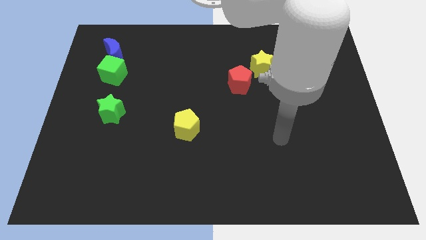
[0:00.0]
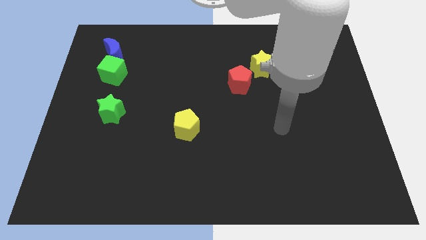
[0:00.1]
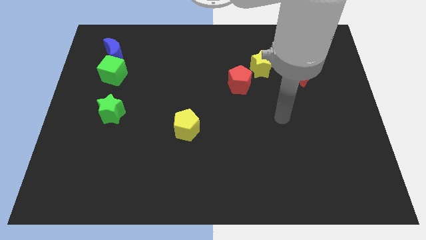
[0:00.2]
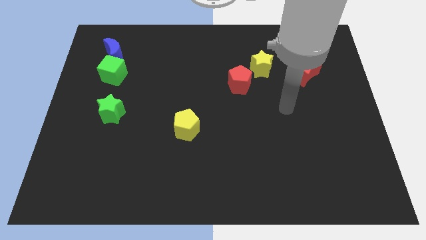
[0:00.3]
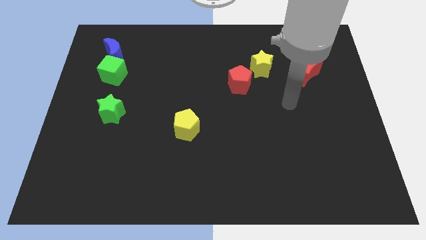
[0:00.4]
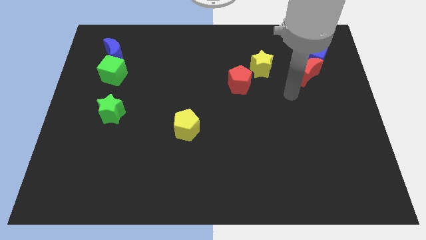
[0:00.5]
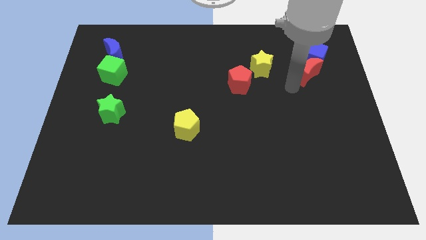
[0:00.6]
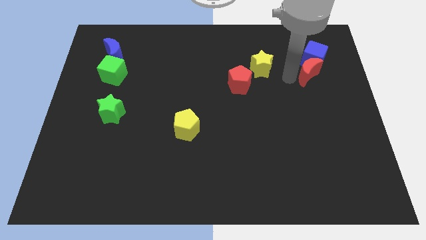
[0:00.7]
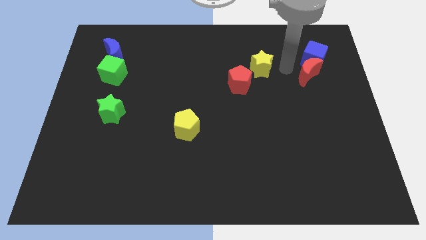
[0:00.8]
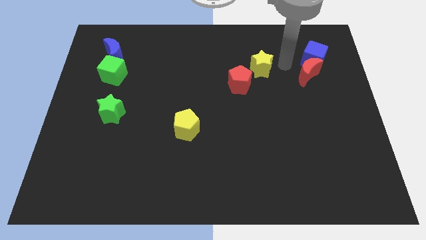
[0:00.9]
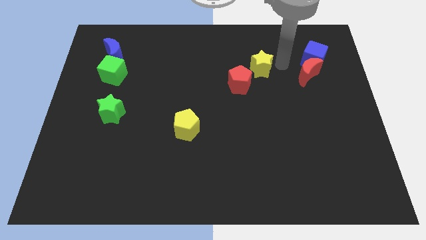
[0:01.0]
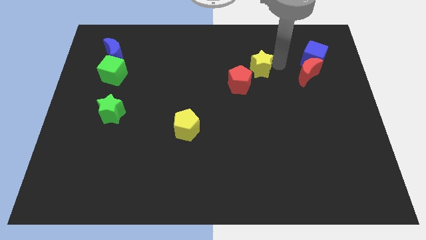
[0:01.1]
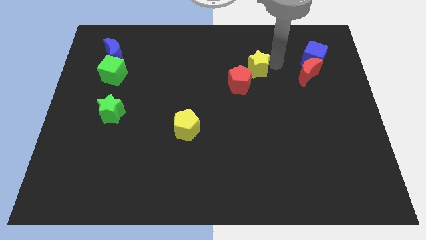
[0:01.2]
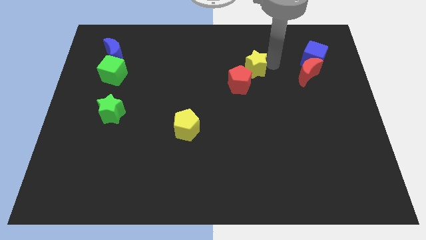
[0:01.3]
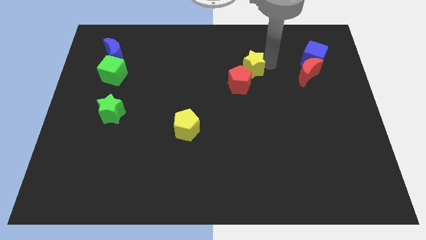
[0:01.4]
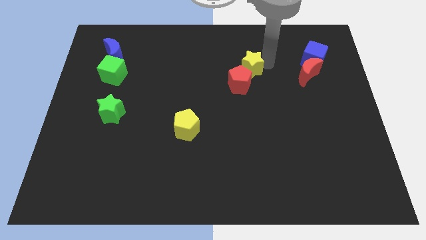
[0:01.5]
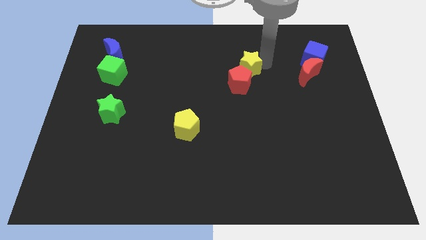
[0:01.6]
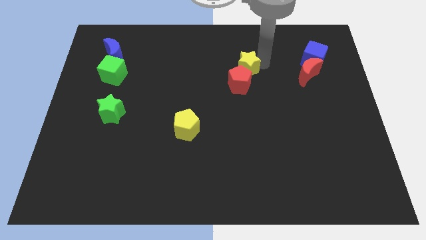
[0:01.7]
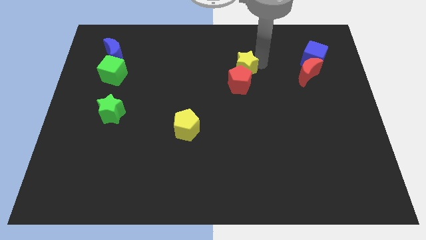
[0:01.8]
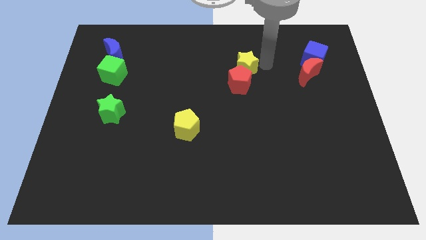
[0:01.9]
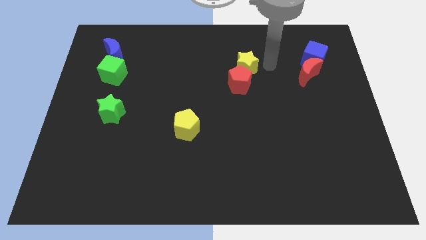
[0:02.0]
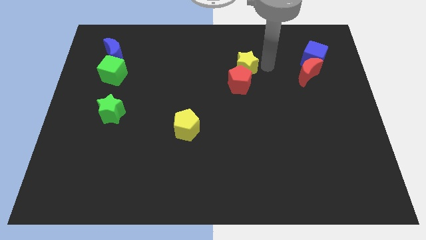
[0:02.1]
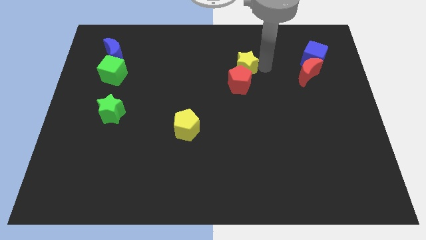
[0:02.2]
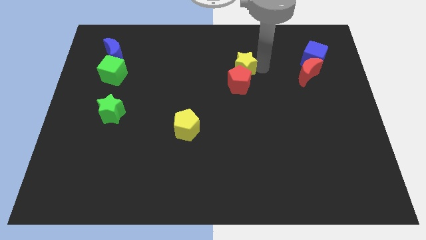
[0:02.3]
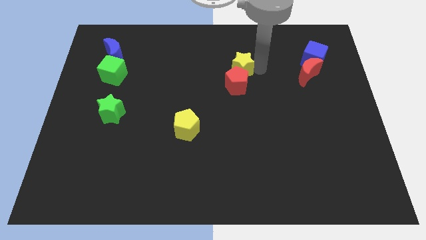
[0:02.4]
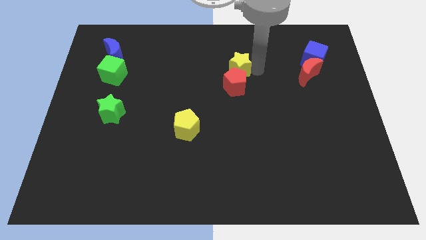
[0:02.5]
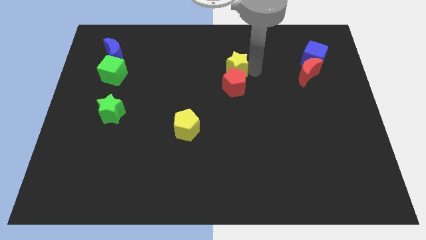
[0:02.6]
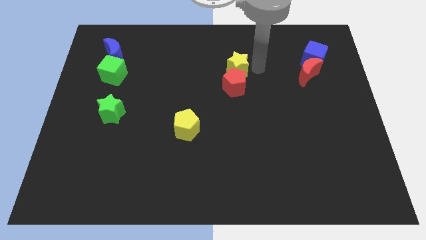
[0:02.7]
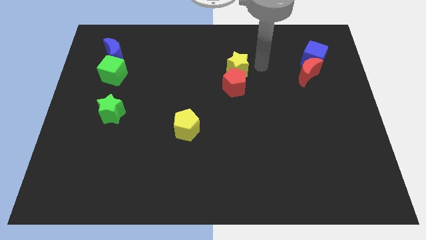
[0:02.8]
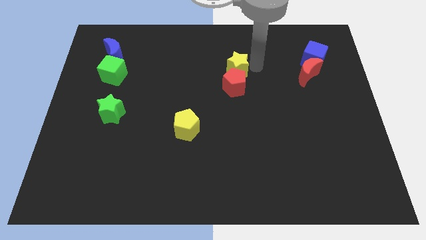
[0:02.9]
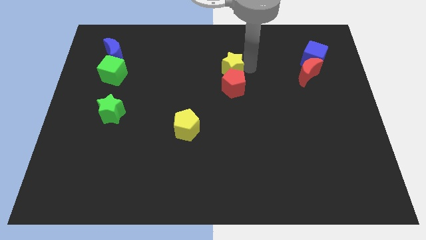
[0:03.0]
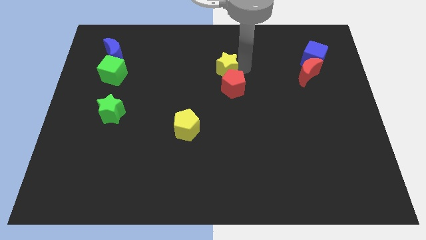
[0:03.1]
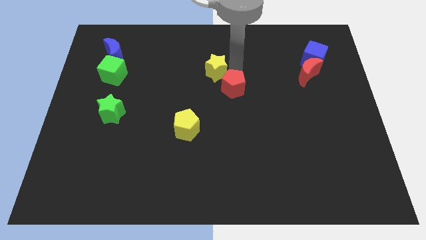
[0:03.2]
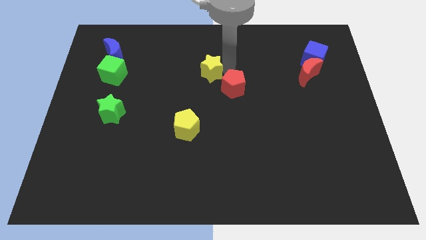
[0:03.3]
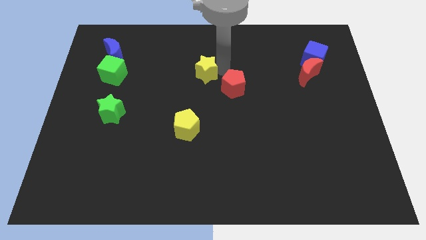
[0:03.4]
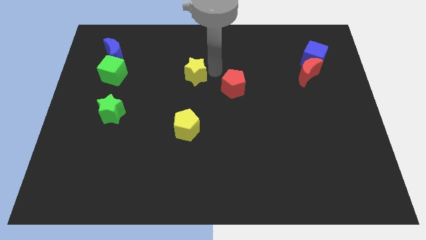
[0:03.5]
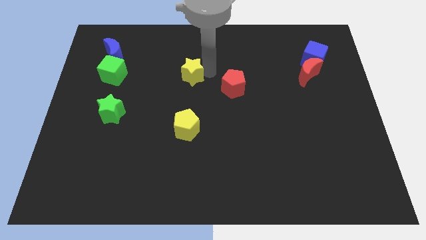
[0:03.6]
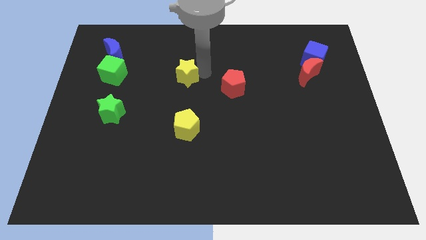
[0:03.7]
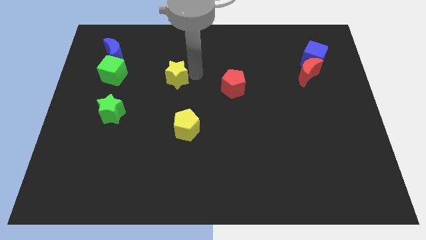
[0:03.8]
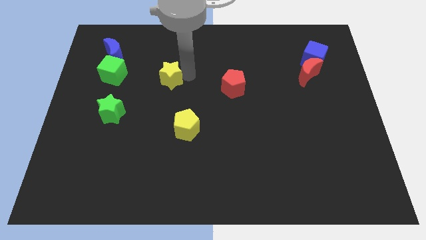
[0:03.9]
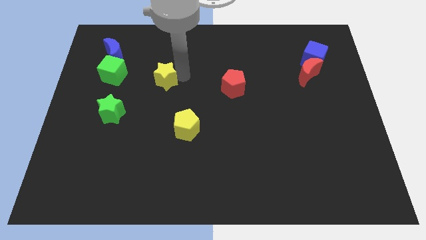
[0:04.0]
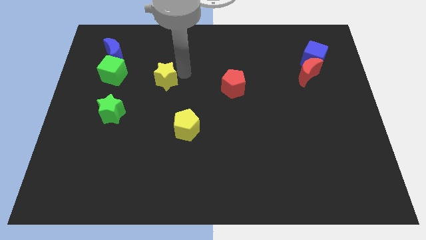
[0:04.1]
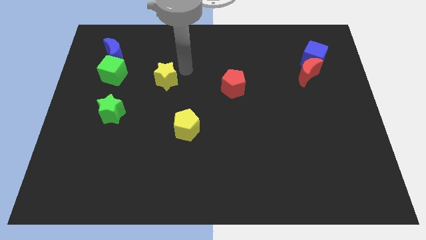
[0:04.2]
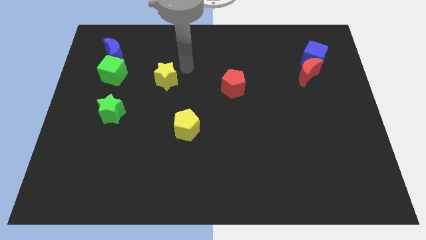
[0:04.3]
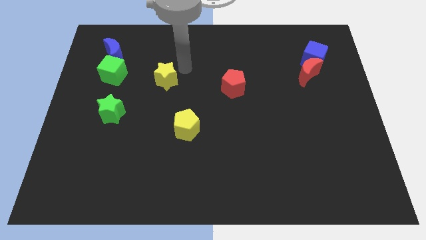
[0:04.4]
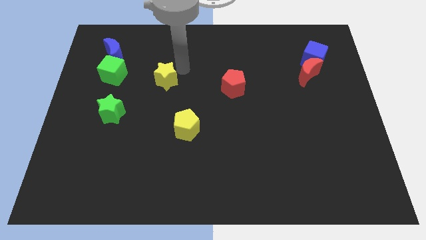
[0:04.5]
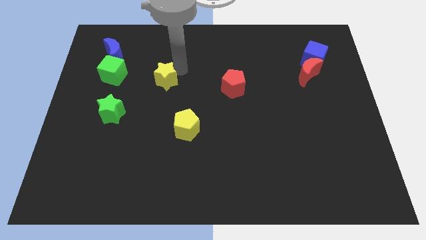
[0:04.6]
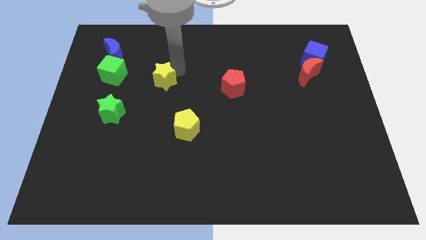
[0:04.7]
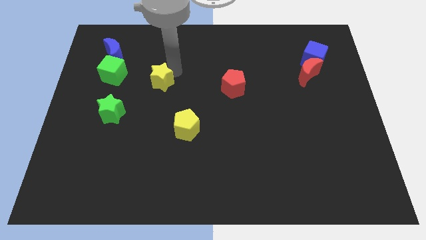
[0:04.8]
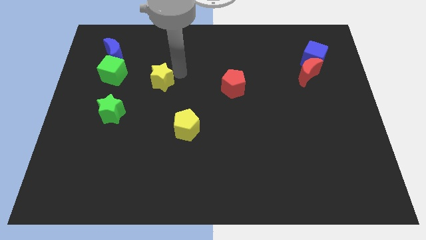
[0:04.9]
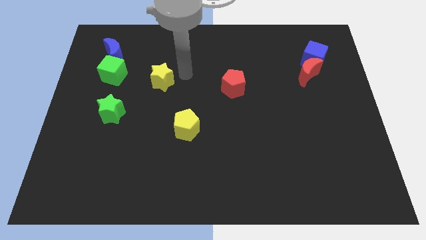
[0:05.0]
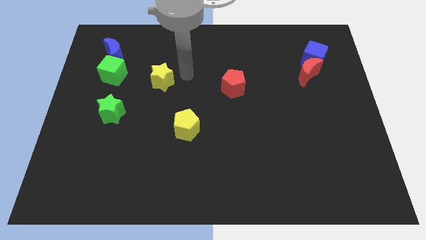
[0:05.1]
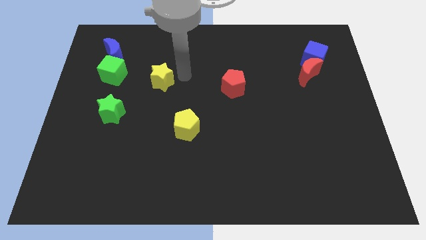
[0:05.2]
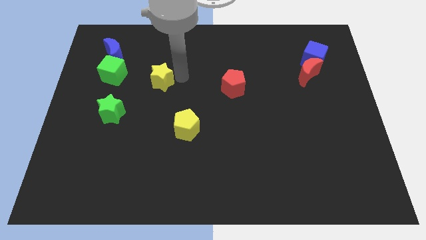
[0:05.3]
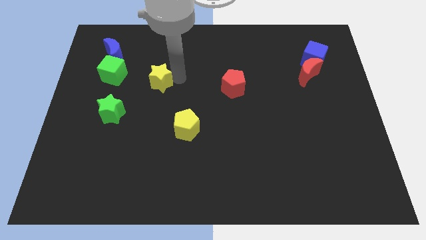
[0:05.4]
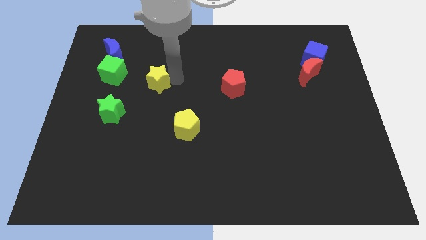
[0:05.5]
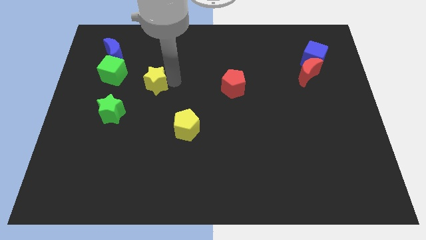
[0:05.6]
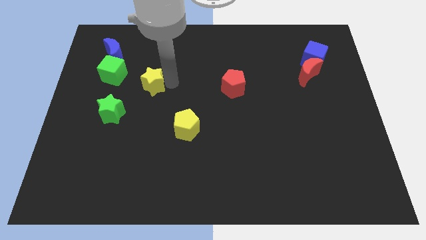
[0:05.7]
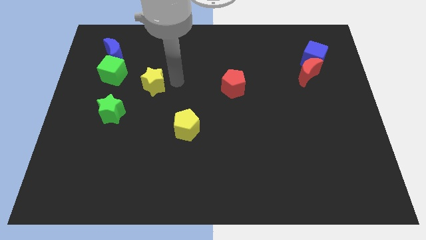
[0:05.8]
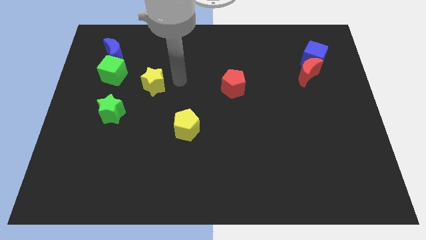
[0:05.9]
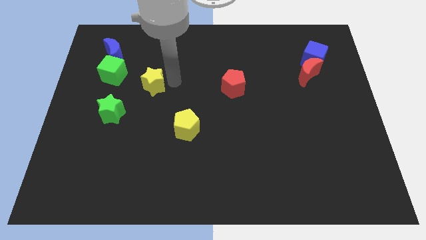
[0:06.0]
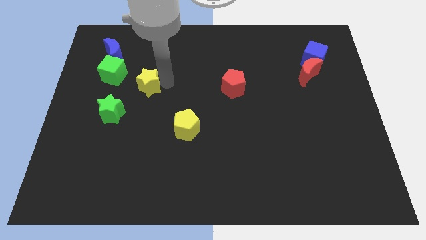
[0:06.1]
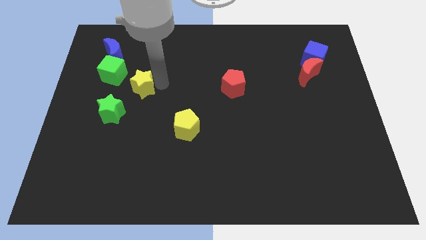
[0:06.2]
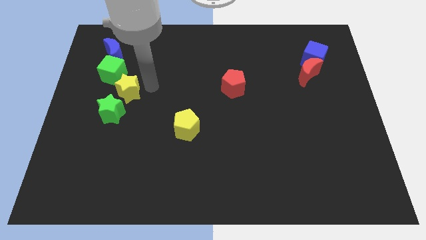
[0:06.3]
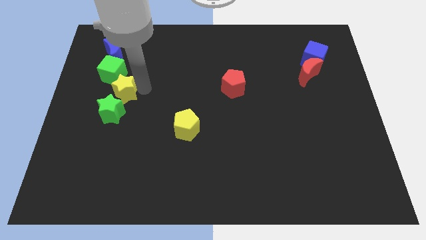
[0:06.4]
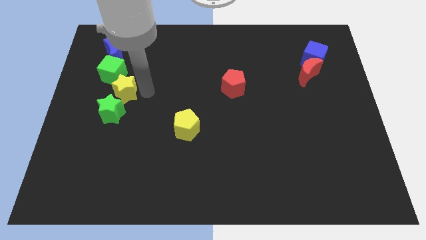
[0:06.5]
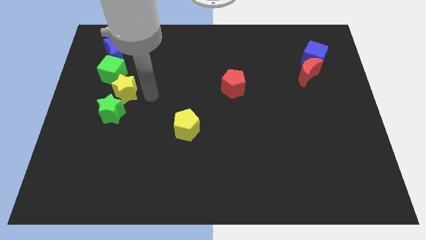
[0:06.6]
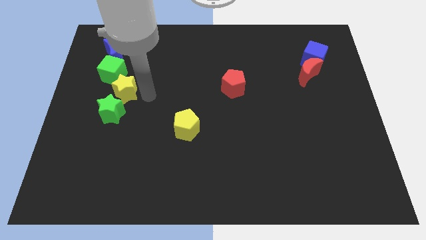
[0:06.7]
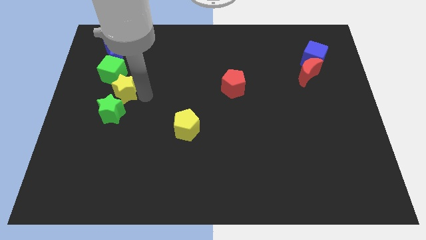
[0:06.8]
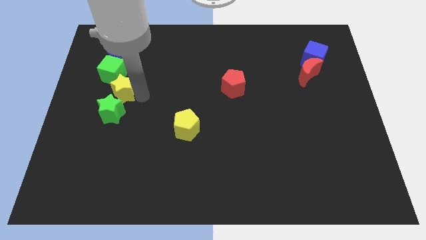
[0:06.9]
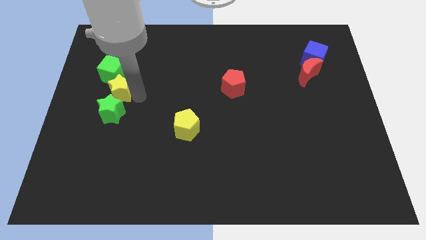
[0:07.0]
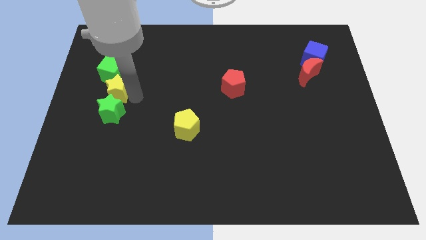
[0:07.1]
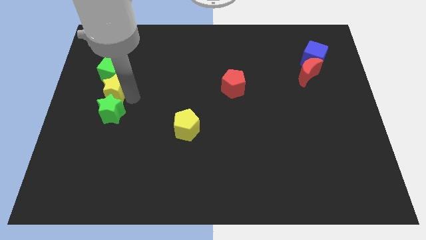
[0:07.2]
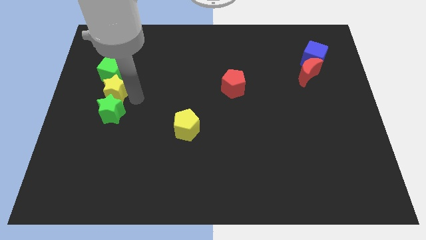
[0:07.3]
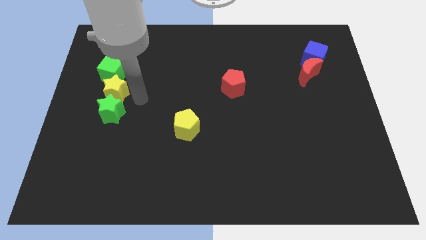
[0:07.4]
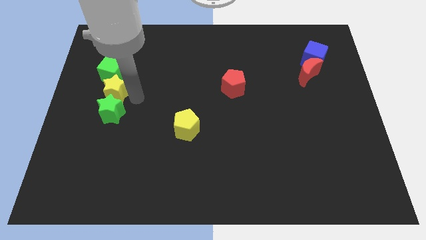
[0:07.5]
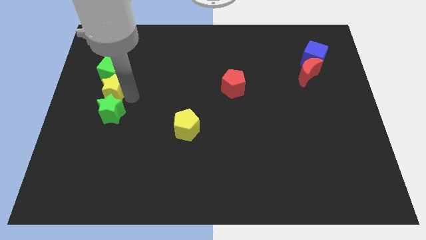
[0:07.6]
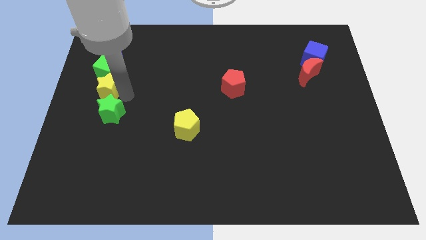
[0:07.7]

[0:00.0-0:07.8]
put the yellow star to the center left
